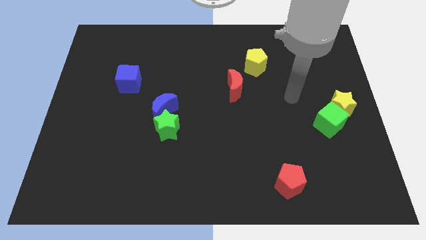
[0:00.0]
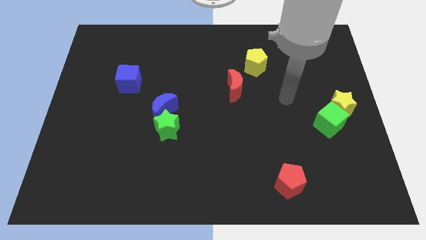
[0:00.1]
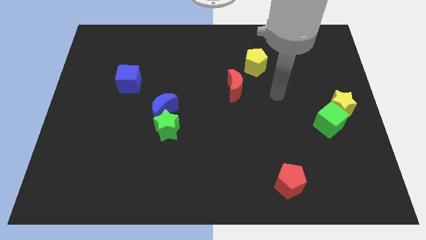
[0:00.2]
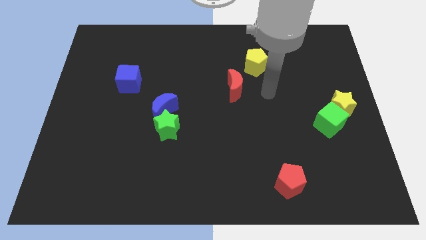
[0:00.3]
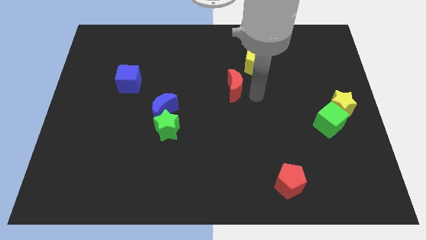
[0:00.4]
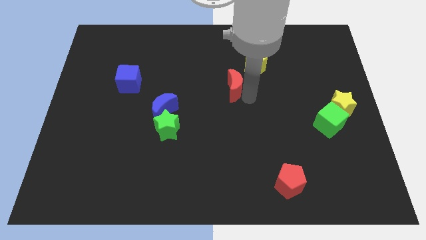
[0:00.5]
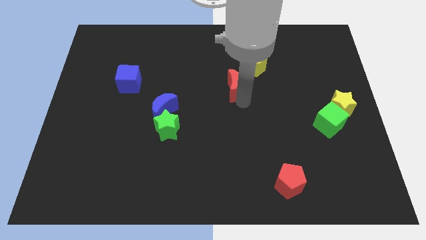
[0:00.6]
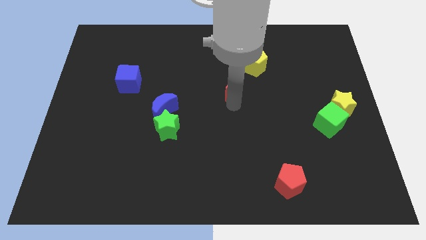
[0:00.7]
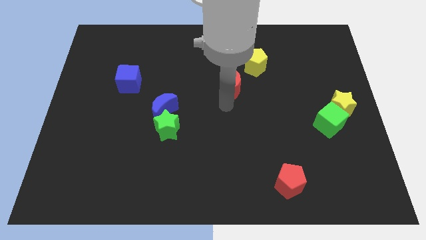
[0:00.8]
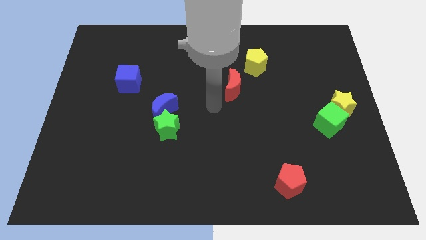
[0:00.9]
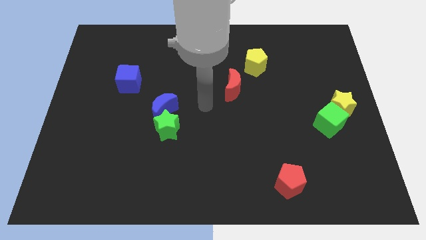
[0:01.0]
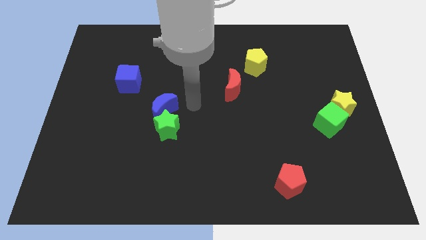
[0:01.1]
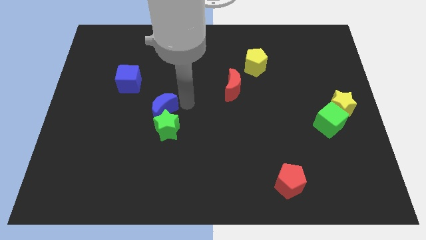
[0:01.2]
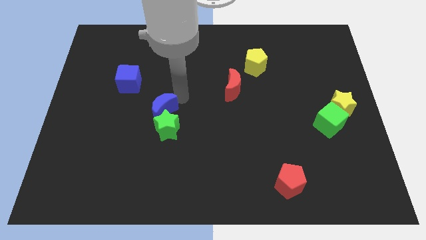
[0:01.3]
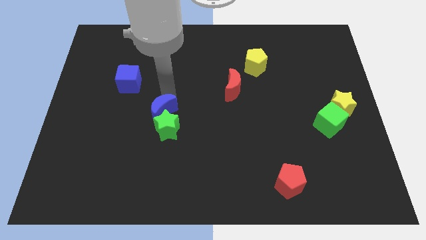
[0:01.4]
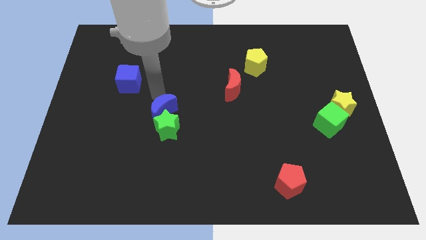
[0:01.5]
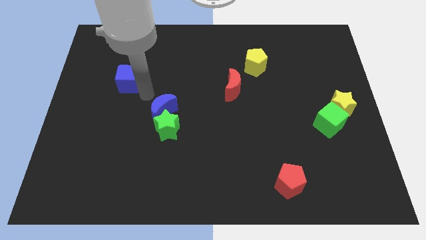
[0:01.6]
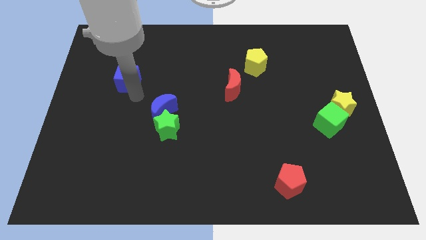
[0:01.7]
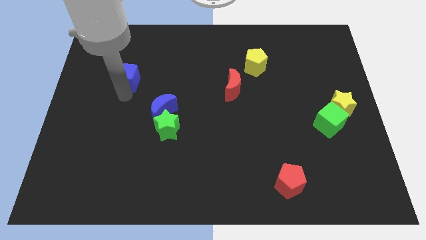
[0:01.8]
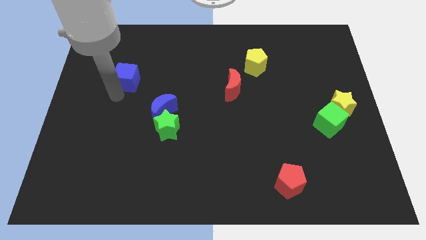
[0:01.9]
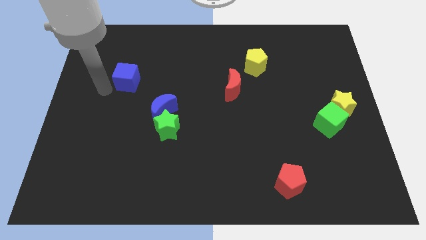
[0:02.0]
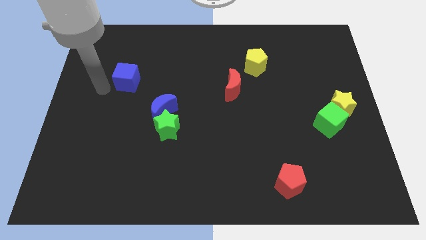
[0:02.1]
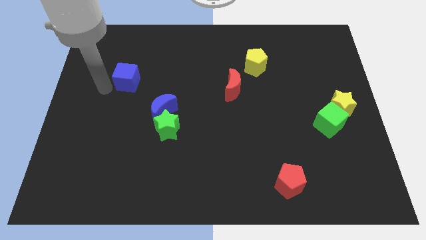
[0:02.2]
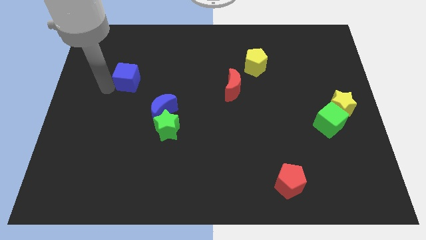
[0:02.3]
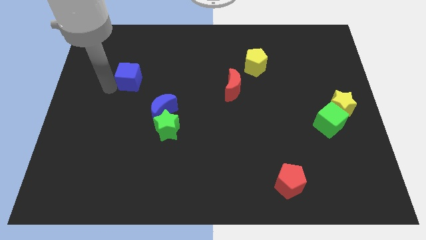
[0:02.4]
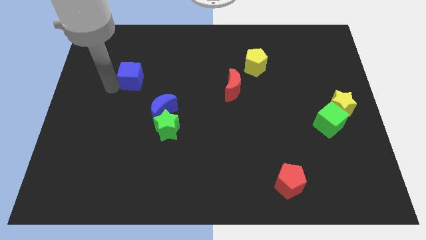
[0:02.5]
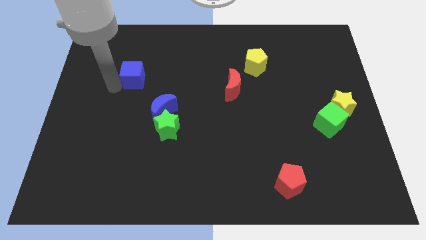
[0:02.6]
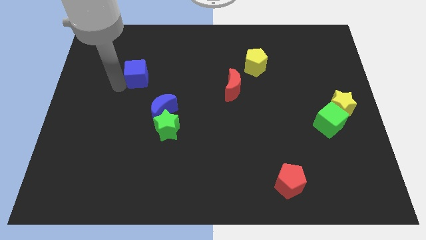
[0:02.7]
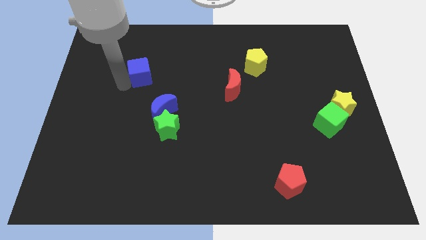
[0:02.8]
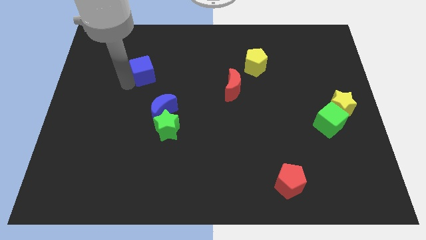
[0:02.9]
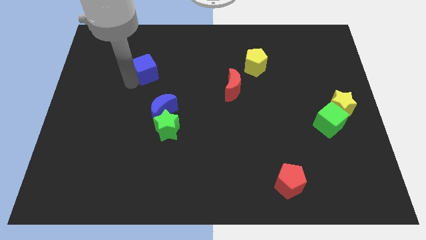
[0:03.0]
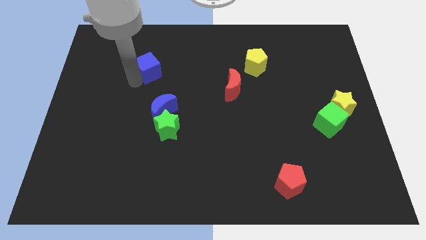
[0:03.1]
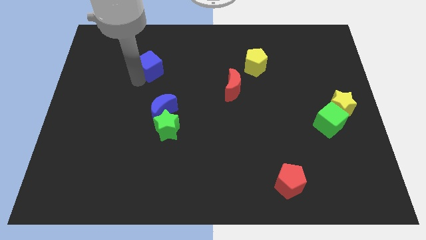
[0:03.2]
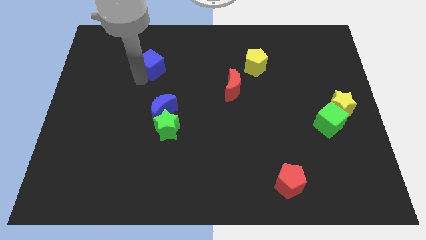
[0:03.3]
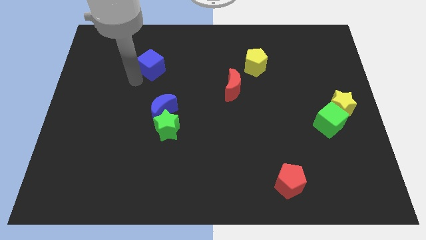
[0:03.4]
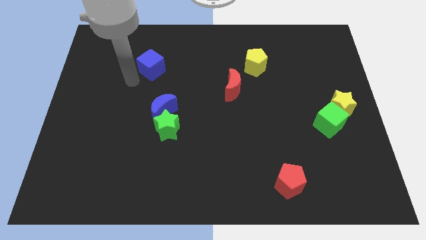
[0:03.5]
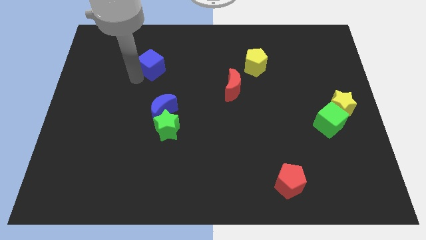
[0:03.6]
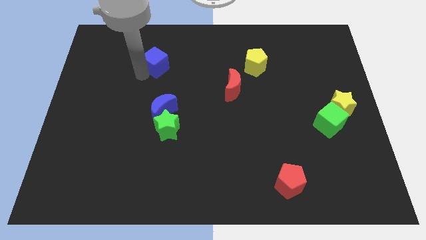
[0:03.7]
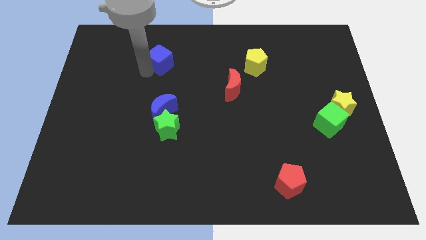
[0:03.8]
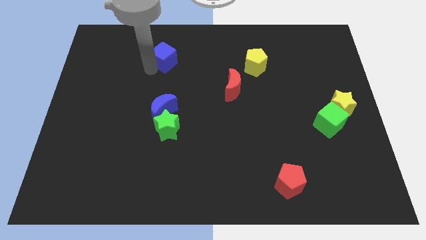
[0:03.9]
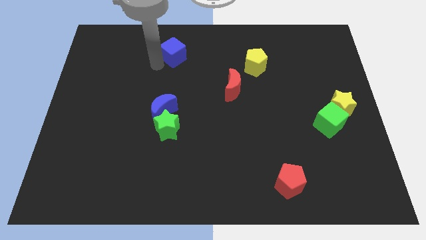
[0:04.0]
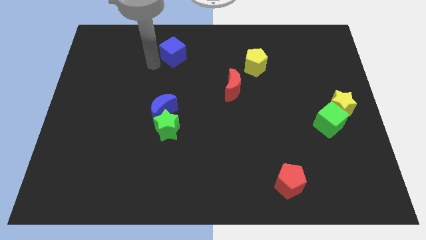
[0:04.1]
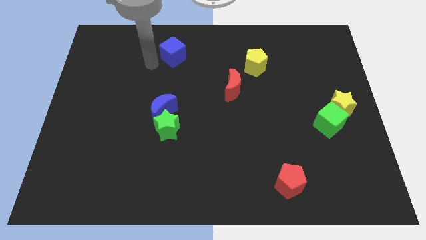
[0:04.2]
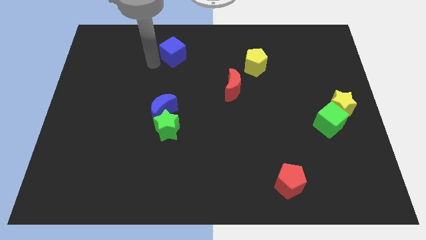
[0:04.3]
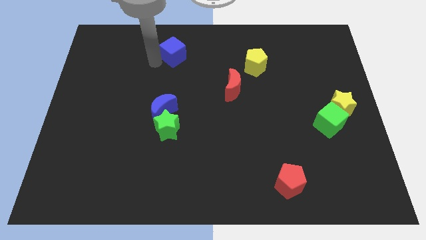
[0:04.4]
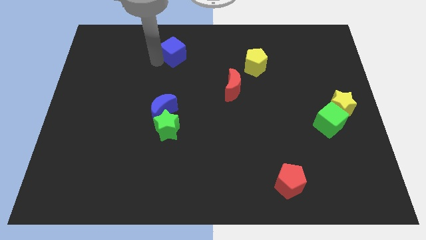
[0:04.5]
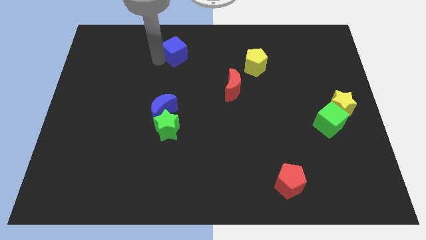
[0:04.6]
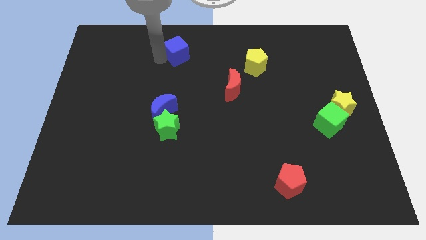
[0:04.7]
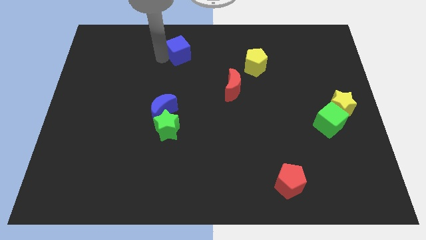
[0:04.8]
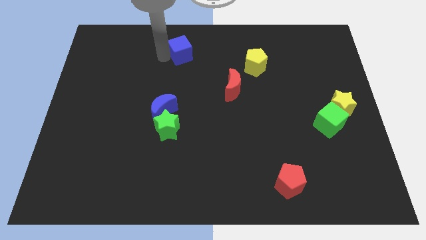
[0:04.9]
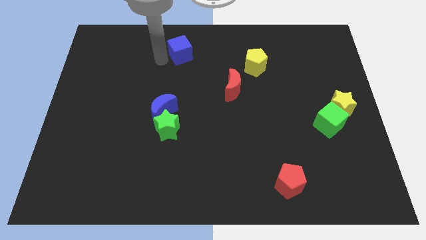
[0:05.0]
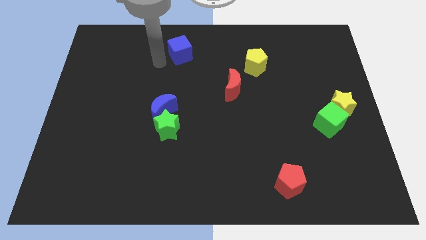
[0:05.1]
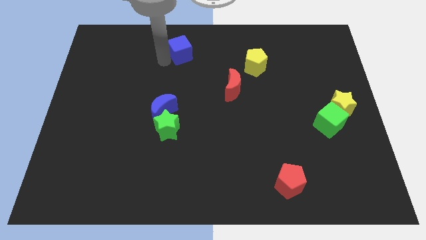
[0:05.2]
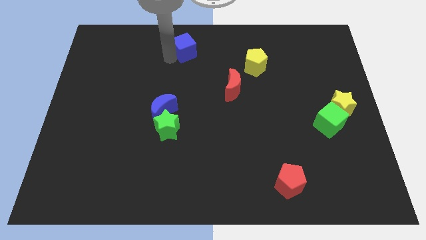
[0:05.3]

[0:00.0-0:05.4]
slide the blue cube to the top

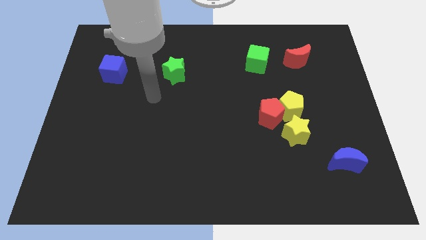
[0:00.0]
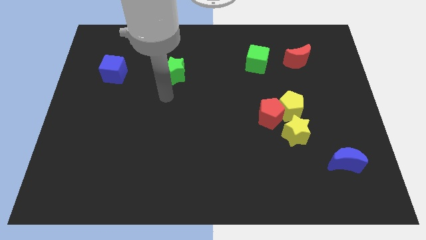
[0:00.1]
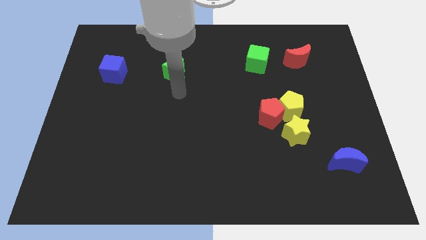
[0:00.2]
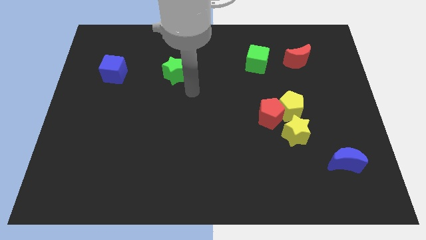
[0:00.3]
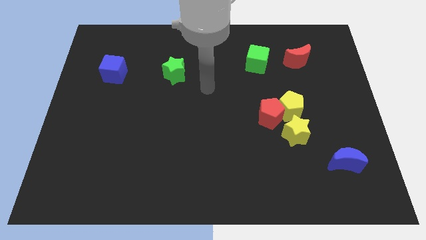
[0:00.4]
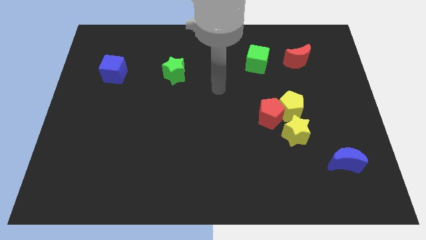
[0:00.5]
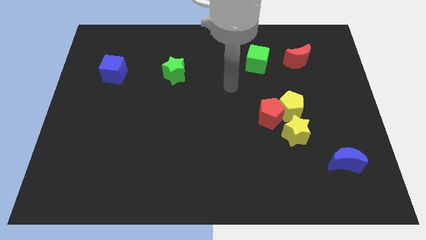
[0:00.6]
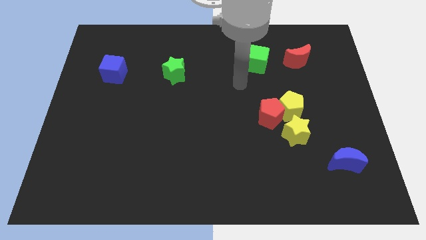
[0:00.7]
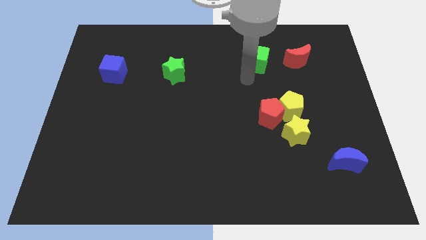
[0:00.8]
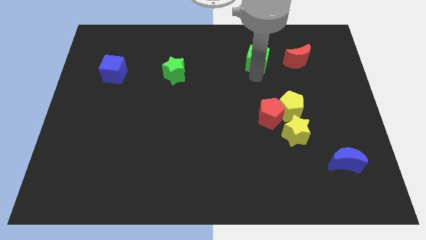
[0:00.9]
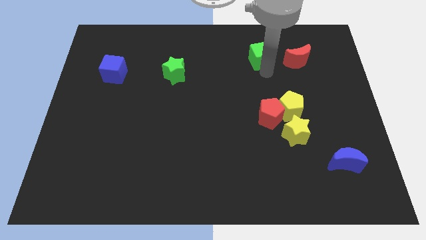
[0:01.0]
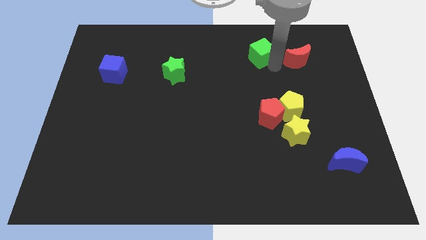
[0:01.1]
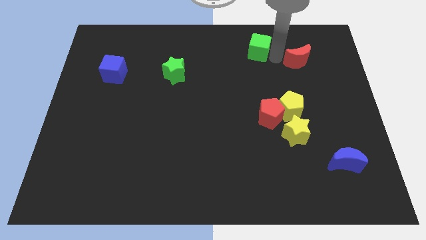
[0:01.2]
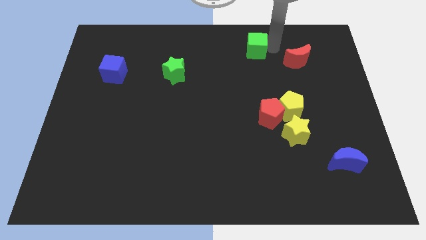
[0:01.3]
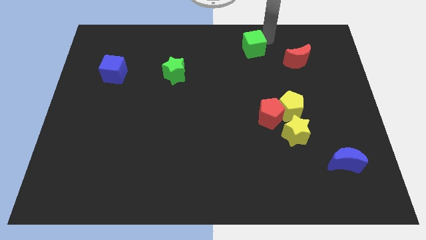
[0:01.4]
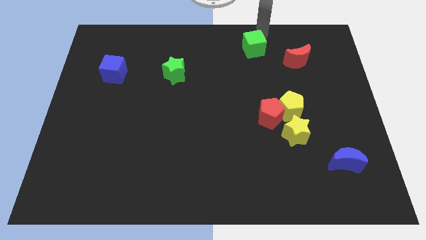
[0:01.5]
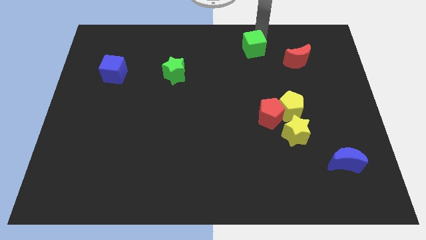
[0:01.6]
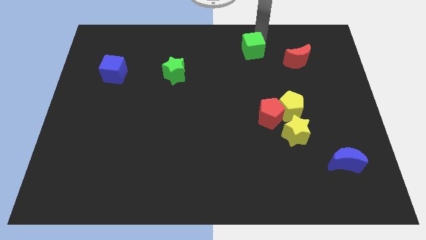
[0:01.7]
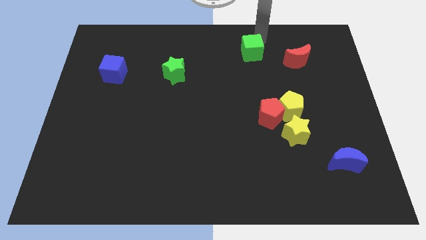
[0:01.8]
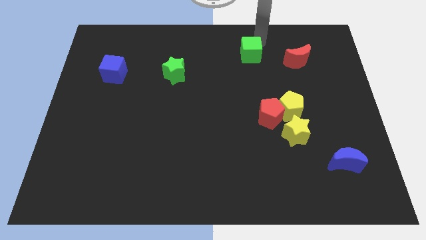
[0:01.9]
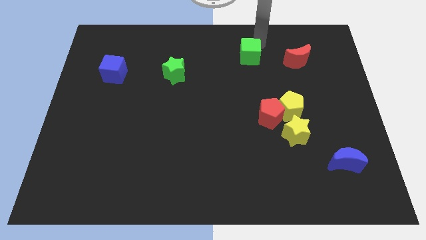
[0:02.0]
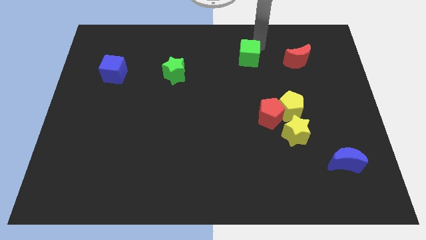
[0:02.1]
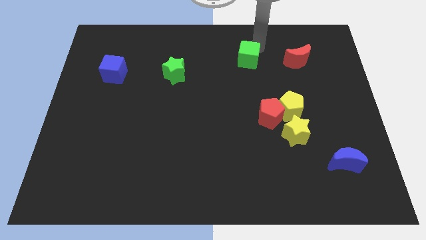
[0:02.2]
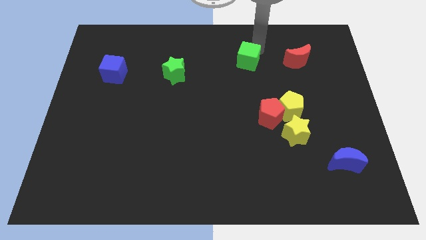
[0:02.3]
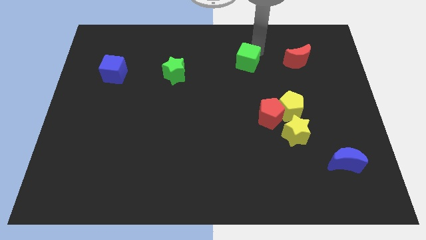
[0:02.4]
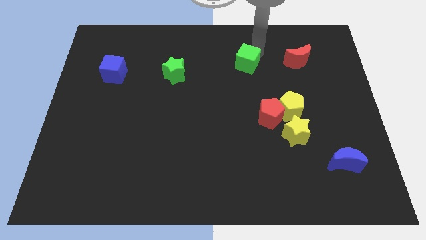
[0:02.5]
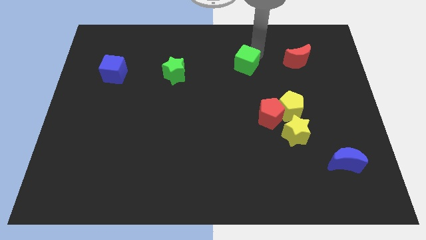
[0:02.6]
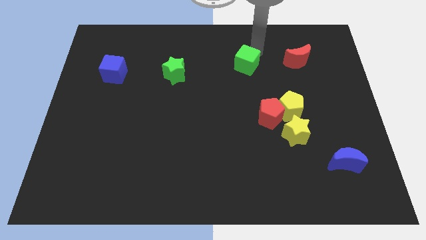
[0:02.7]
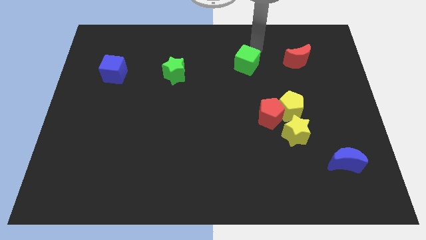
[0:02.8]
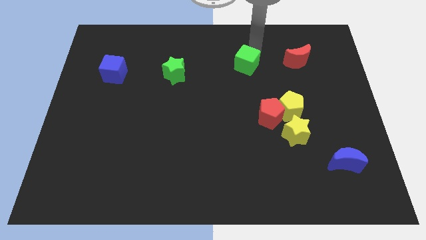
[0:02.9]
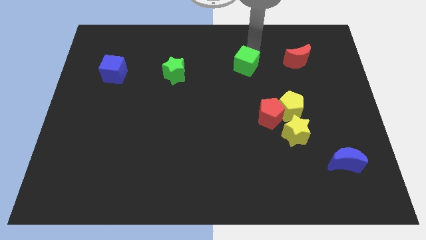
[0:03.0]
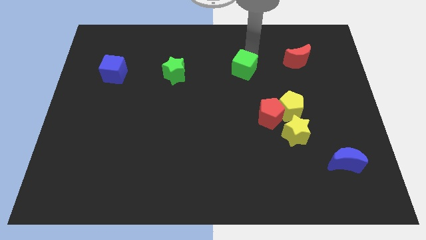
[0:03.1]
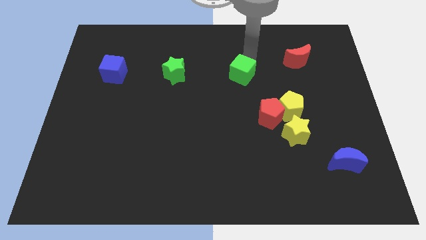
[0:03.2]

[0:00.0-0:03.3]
put the green cube to the middle
